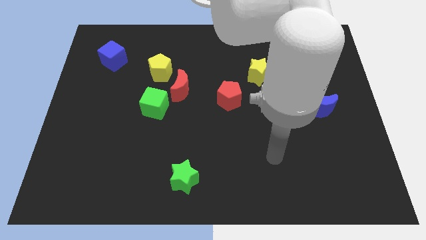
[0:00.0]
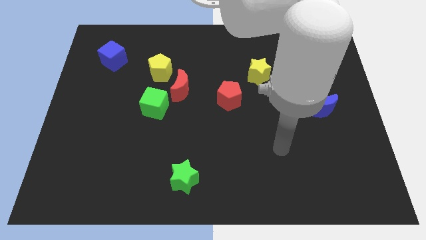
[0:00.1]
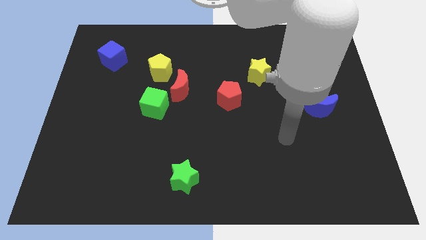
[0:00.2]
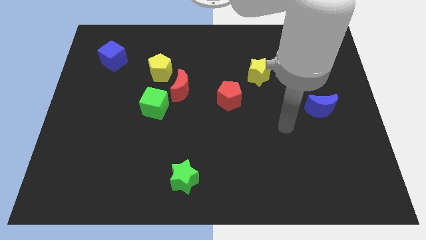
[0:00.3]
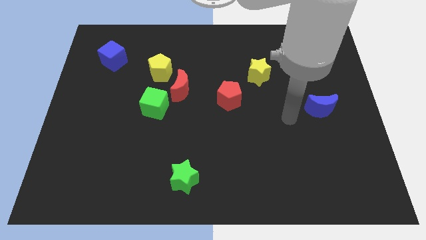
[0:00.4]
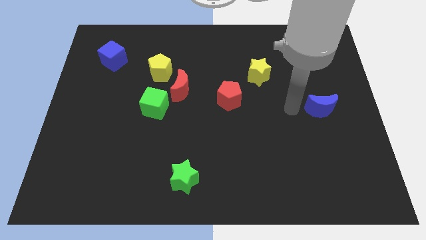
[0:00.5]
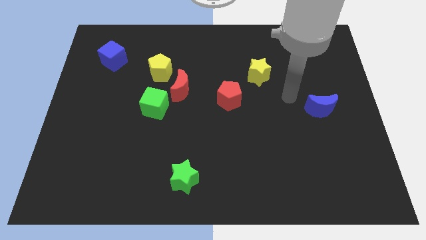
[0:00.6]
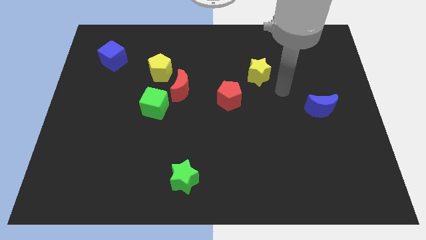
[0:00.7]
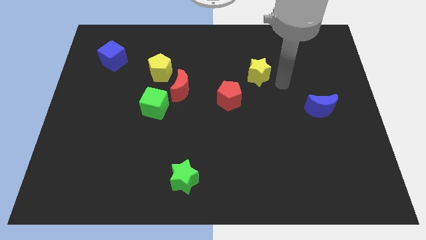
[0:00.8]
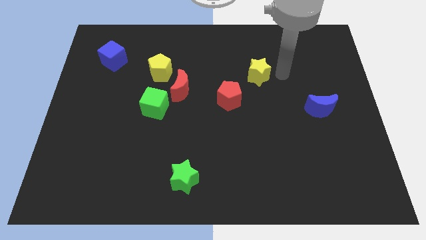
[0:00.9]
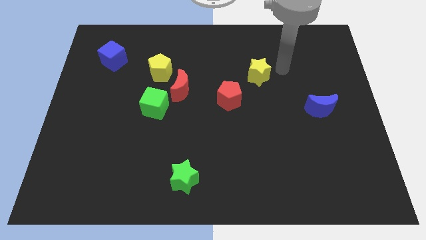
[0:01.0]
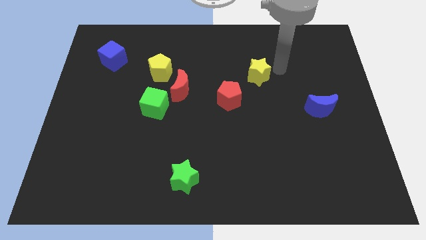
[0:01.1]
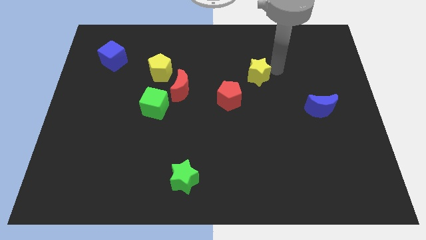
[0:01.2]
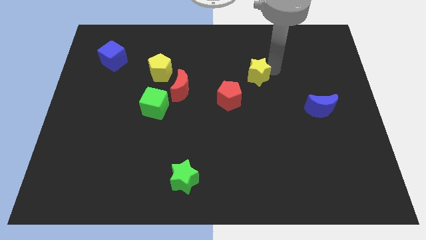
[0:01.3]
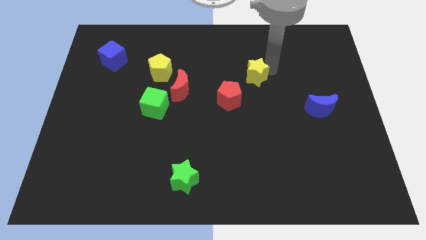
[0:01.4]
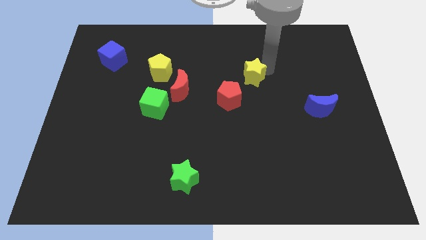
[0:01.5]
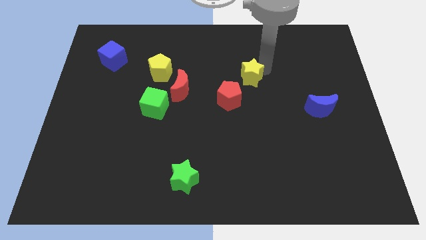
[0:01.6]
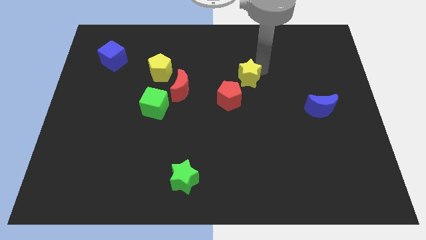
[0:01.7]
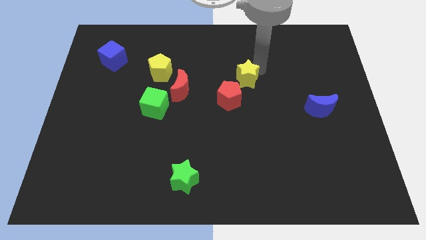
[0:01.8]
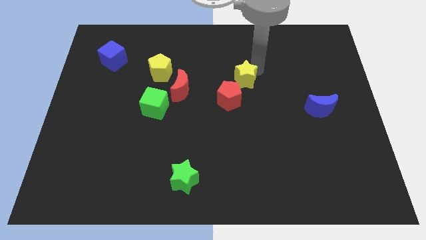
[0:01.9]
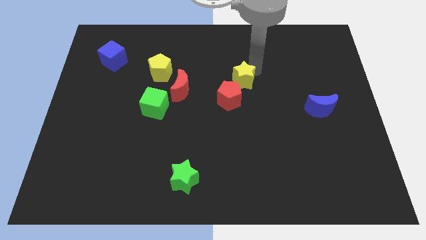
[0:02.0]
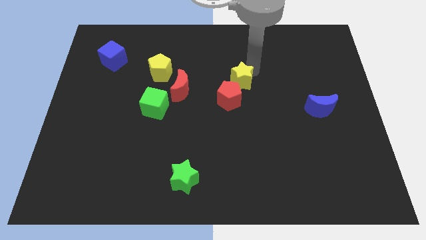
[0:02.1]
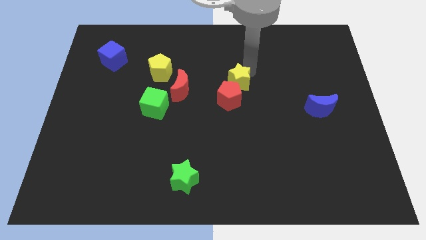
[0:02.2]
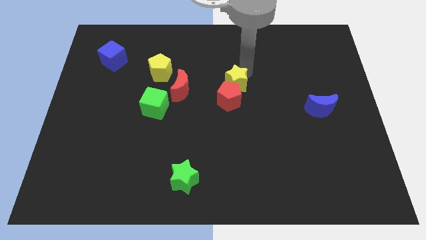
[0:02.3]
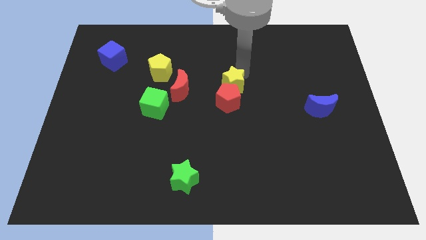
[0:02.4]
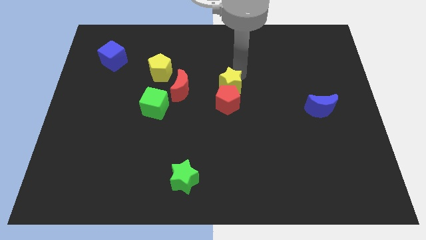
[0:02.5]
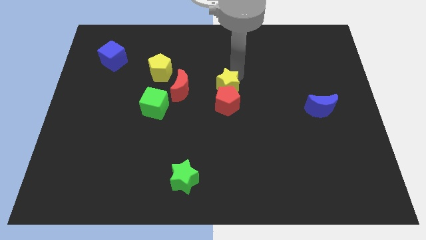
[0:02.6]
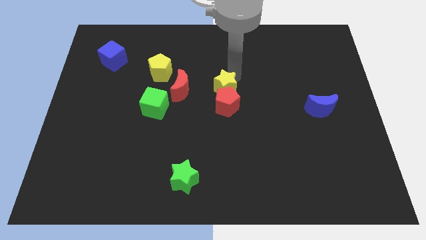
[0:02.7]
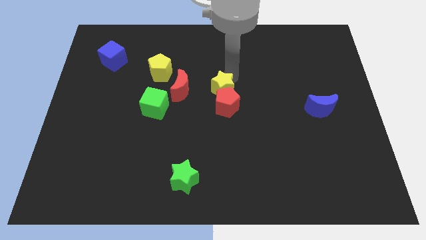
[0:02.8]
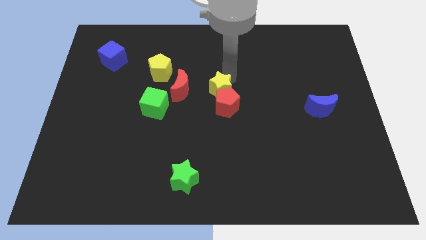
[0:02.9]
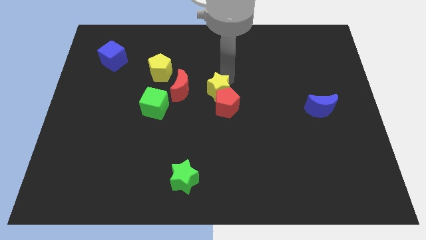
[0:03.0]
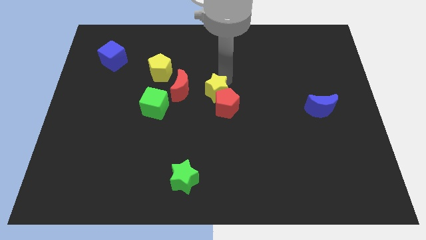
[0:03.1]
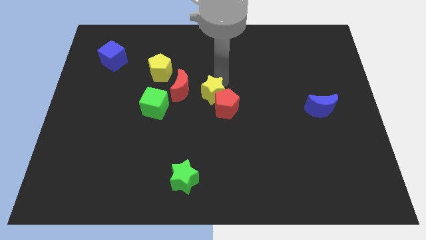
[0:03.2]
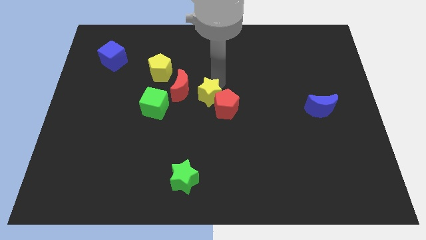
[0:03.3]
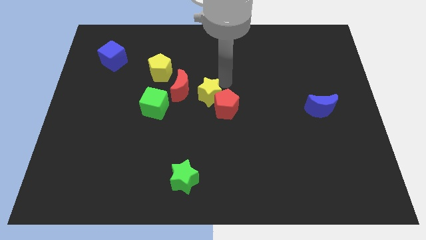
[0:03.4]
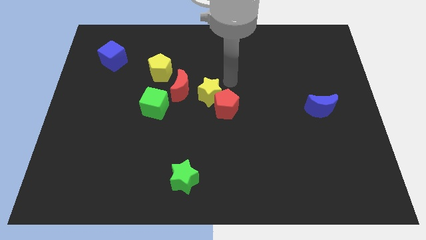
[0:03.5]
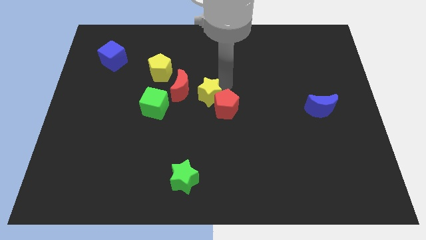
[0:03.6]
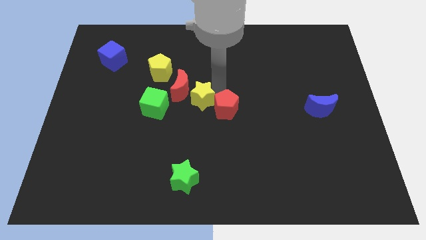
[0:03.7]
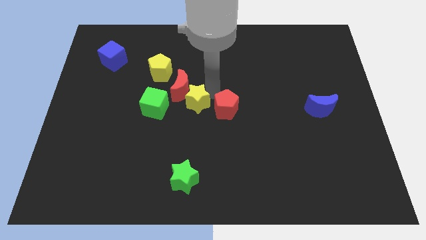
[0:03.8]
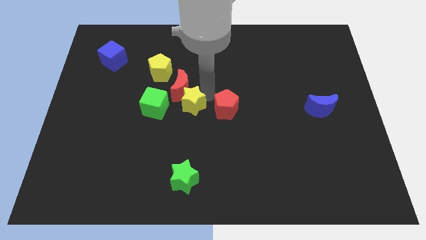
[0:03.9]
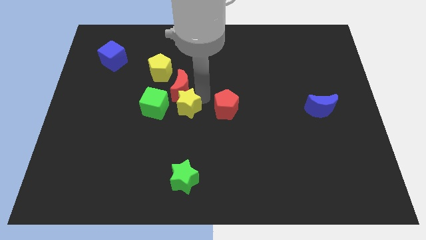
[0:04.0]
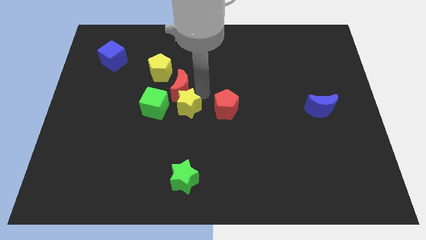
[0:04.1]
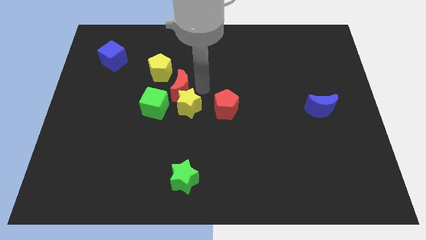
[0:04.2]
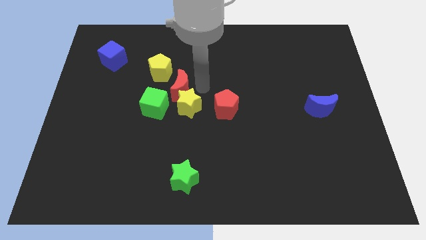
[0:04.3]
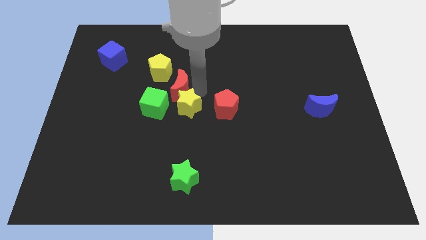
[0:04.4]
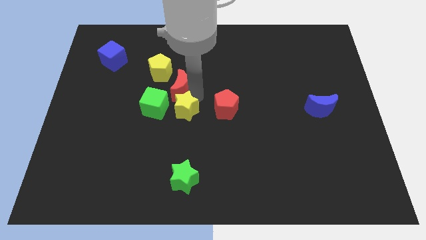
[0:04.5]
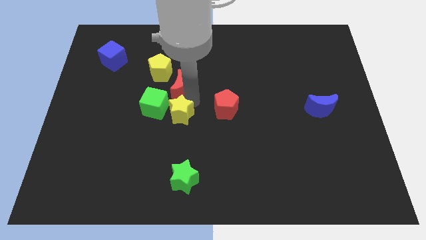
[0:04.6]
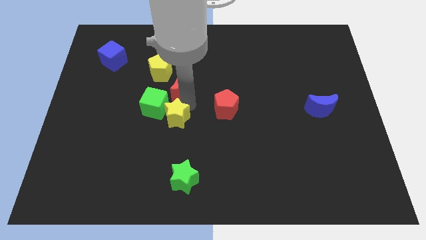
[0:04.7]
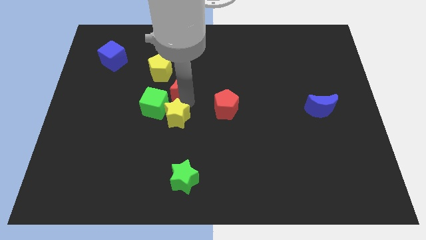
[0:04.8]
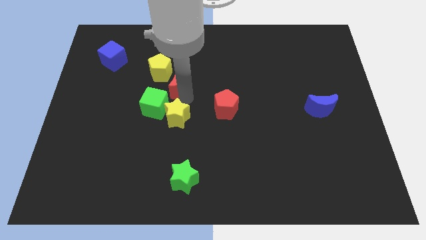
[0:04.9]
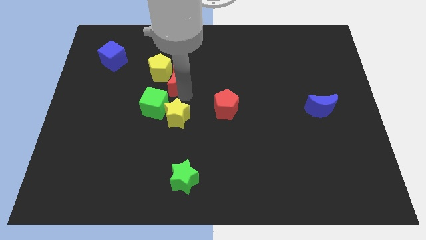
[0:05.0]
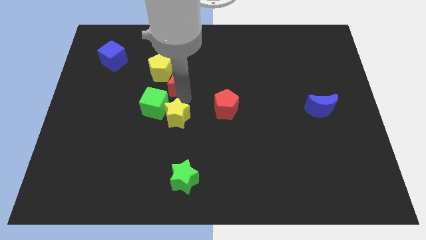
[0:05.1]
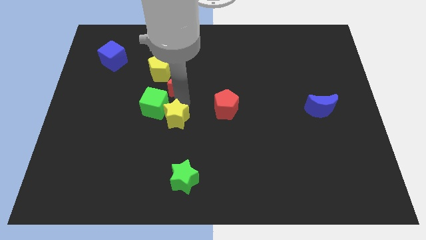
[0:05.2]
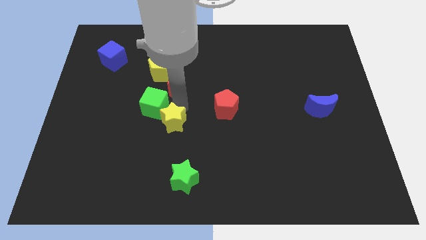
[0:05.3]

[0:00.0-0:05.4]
move the yellow star to the bottom side of the green cube

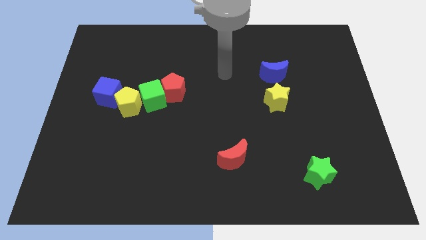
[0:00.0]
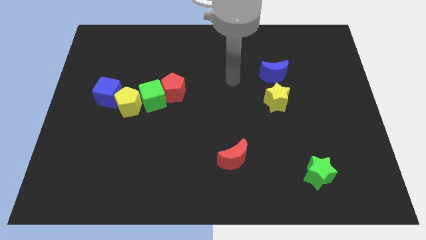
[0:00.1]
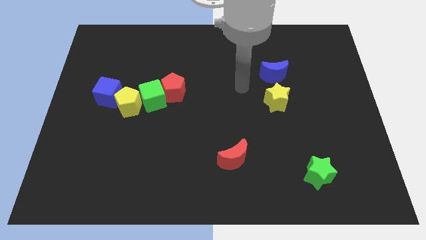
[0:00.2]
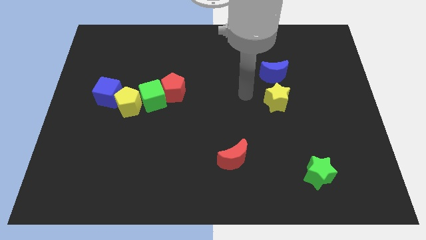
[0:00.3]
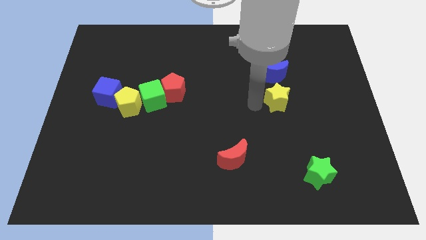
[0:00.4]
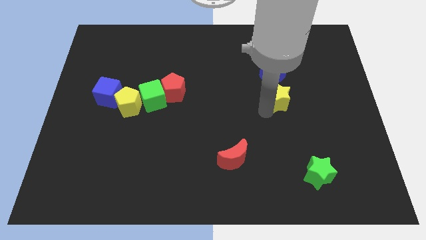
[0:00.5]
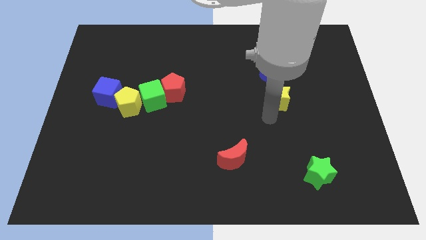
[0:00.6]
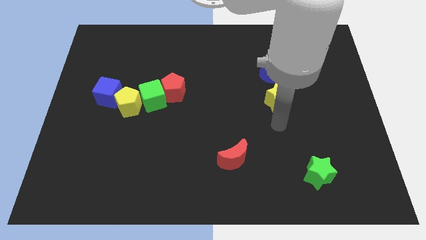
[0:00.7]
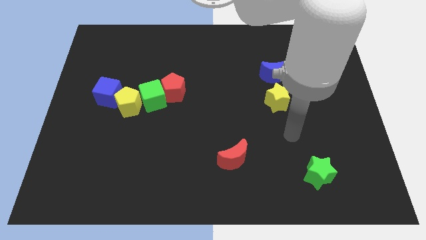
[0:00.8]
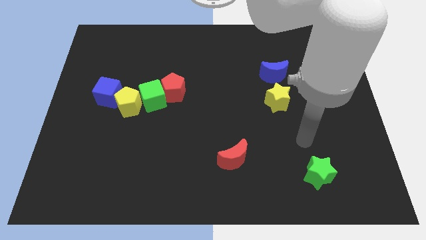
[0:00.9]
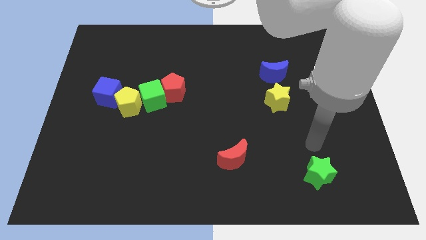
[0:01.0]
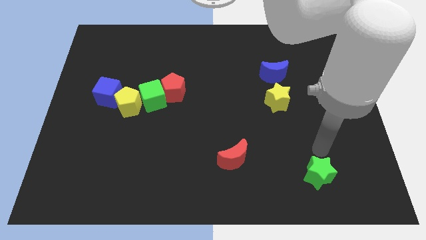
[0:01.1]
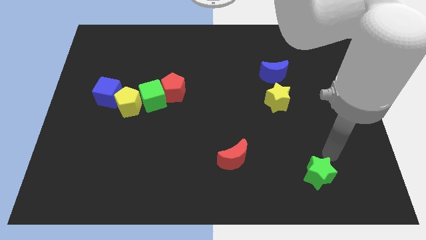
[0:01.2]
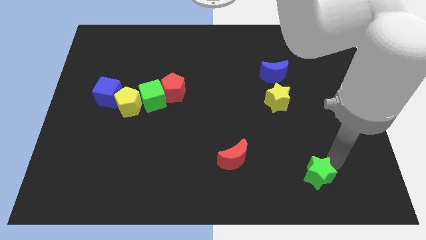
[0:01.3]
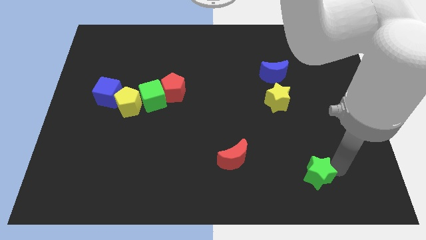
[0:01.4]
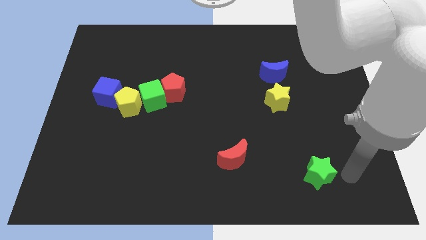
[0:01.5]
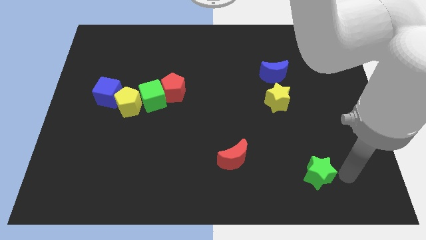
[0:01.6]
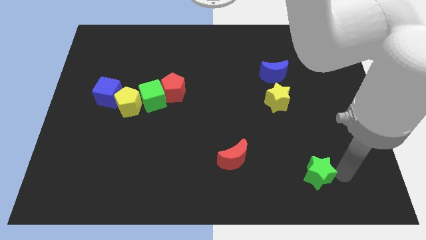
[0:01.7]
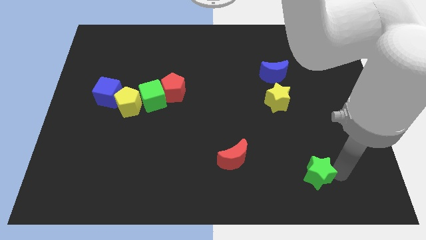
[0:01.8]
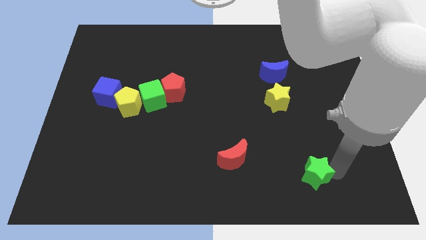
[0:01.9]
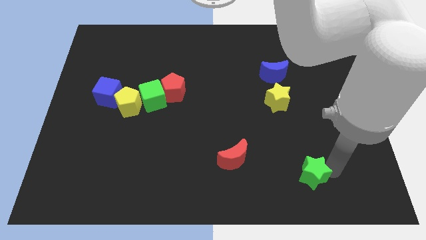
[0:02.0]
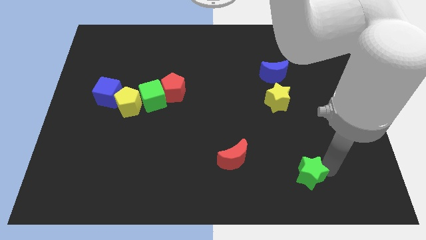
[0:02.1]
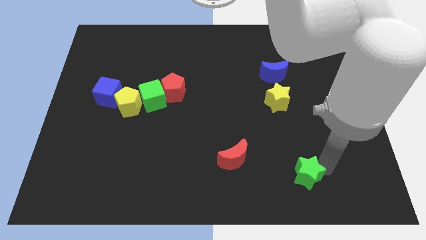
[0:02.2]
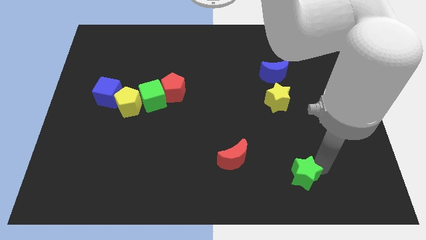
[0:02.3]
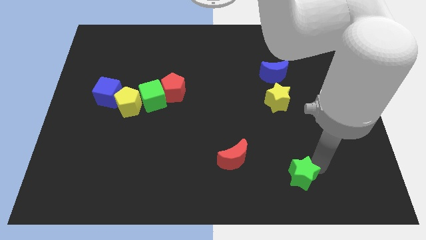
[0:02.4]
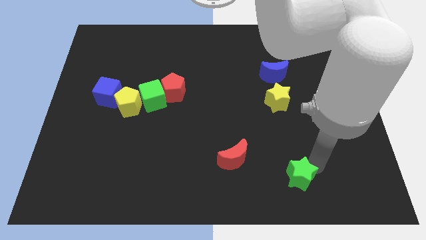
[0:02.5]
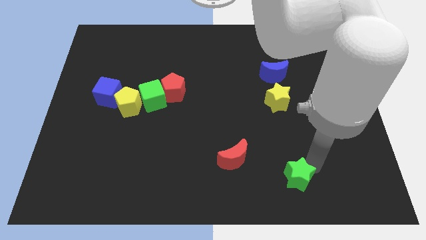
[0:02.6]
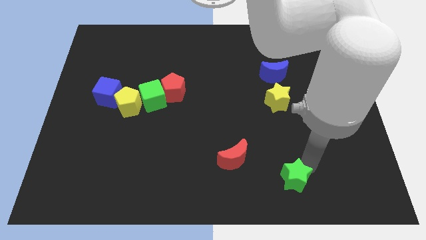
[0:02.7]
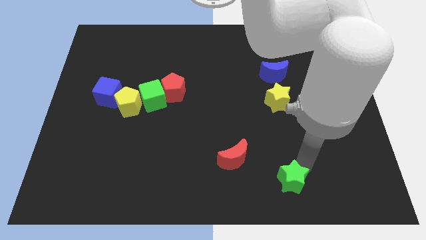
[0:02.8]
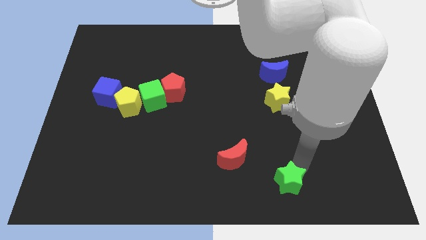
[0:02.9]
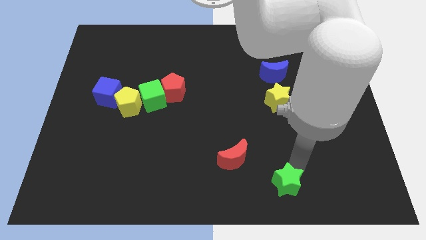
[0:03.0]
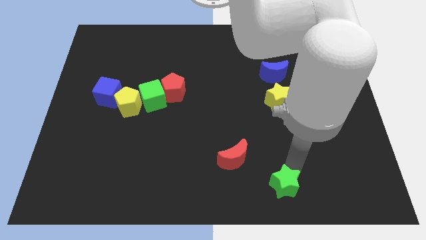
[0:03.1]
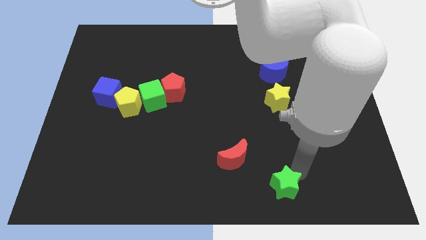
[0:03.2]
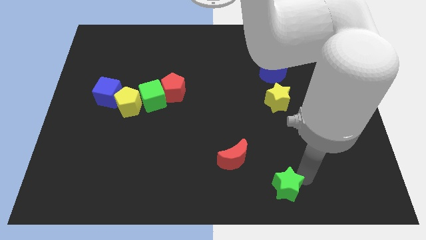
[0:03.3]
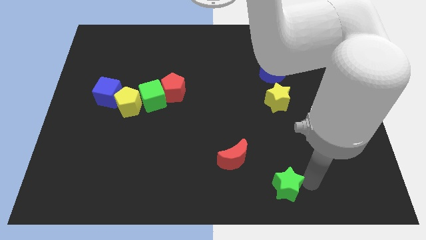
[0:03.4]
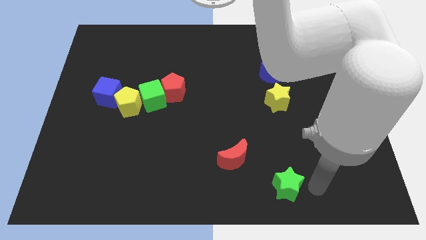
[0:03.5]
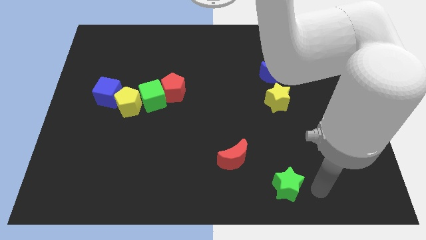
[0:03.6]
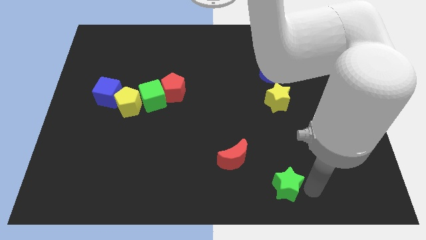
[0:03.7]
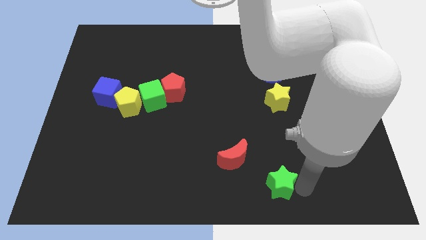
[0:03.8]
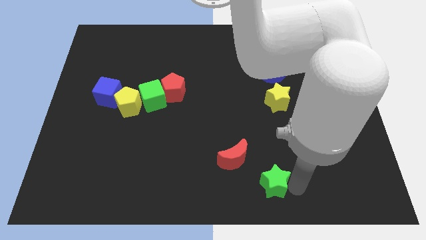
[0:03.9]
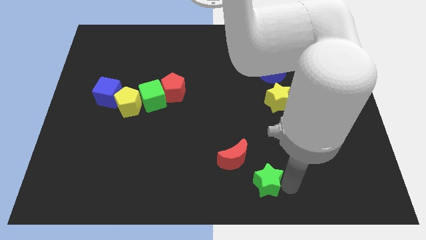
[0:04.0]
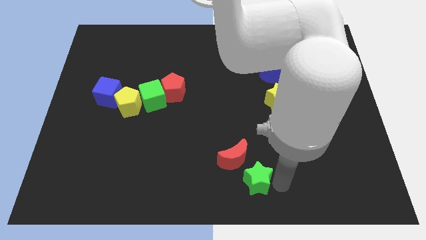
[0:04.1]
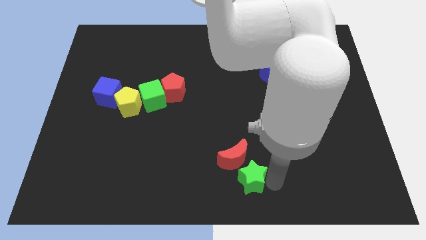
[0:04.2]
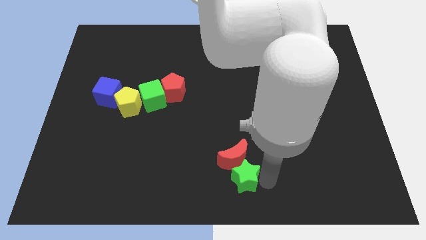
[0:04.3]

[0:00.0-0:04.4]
put the green star diagonally down and to the left of the red moon
